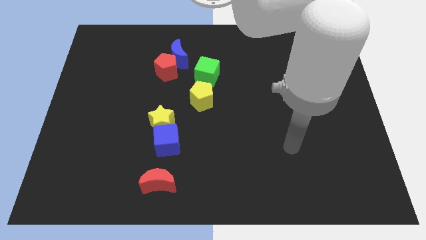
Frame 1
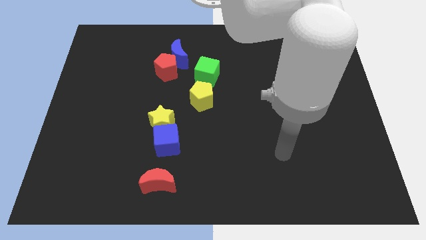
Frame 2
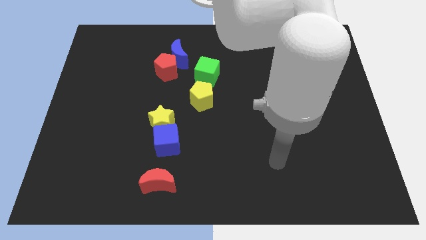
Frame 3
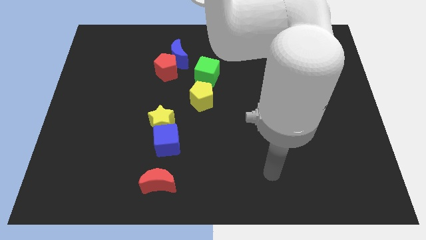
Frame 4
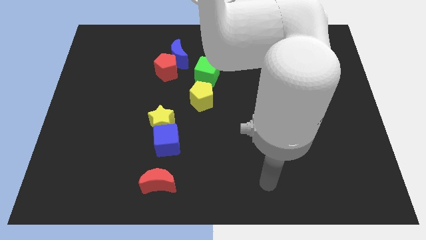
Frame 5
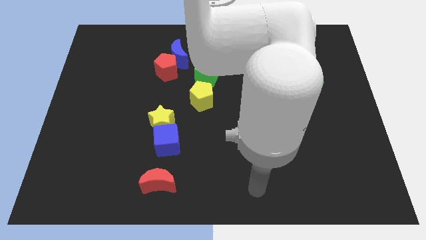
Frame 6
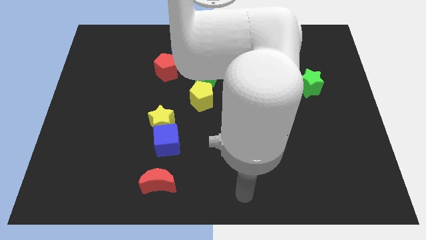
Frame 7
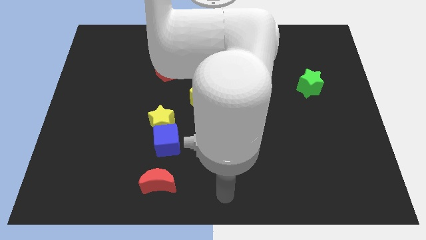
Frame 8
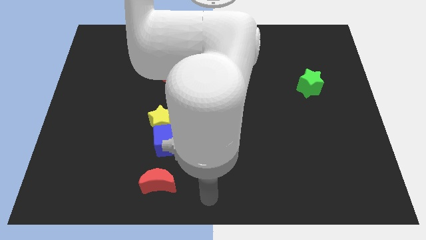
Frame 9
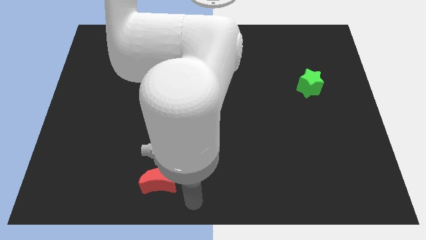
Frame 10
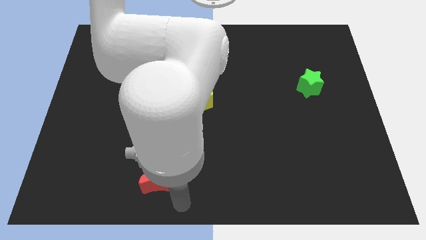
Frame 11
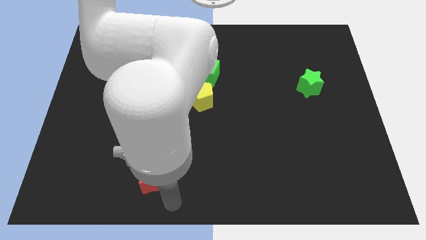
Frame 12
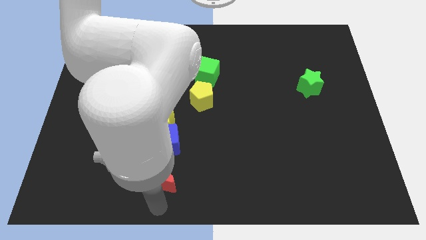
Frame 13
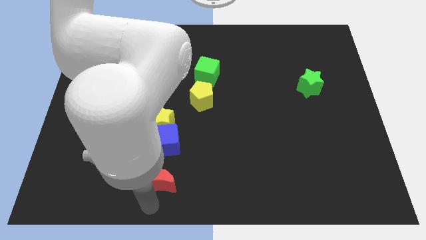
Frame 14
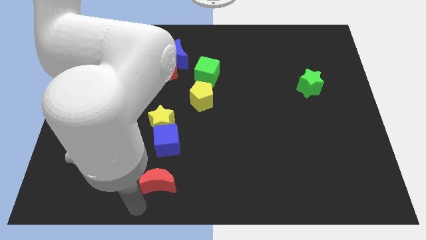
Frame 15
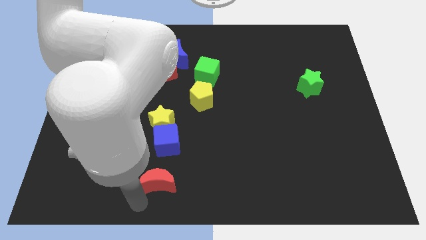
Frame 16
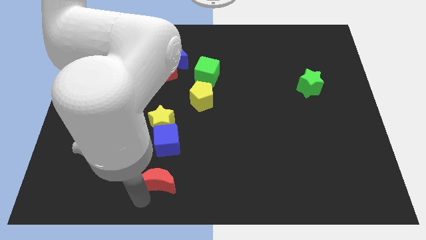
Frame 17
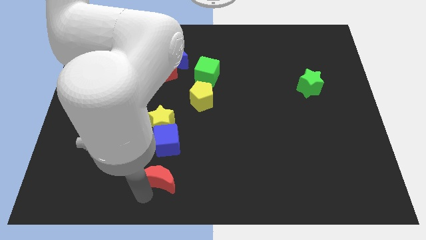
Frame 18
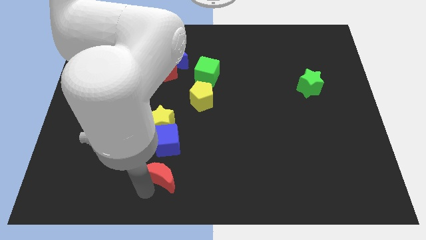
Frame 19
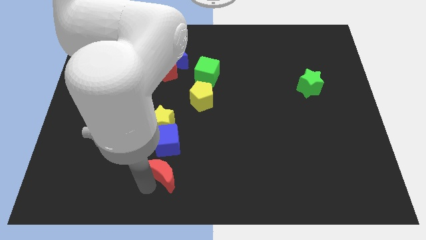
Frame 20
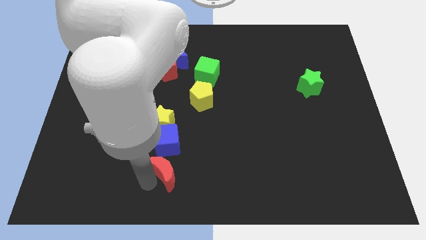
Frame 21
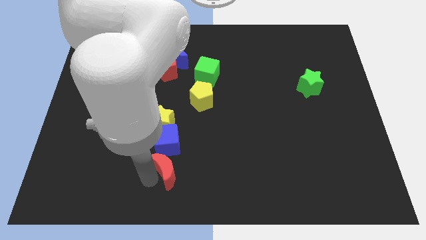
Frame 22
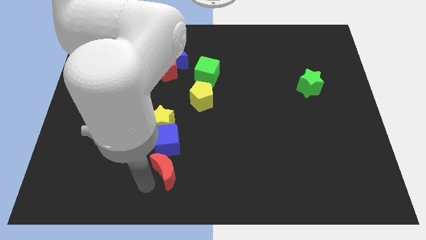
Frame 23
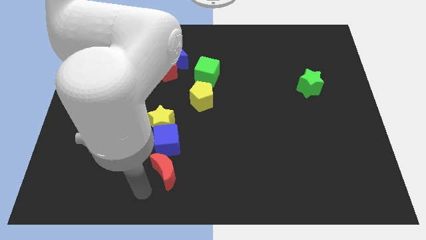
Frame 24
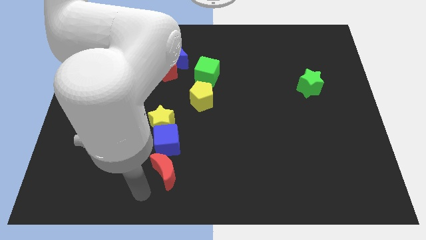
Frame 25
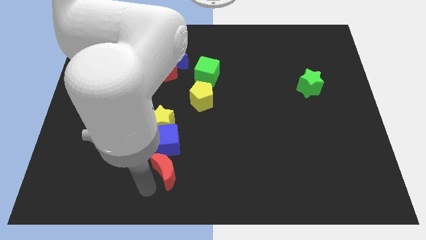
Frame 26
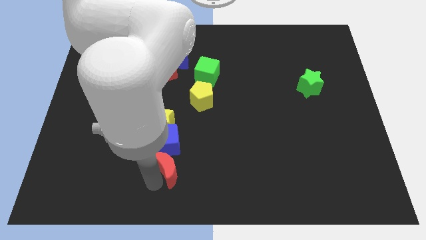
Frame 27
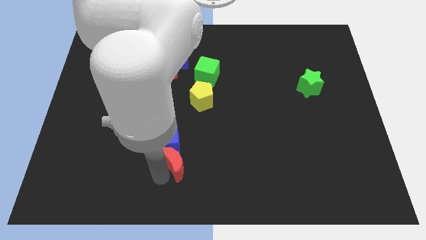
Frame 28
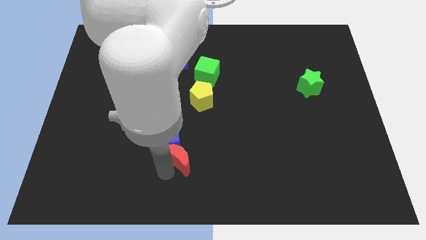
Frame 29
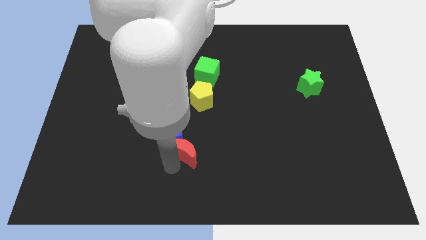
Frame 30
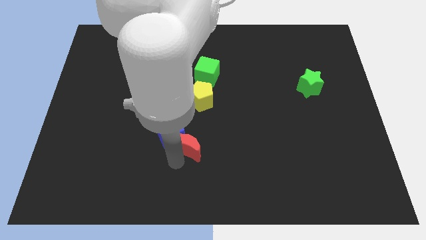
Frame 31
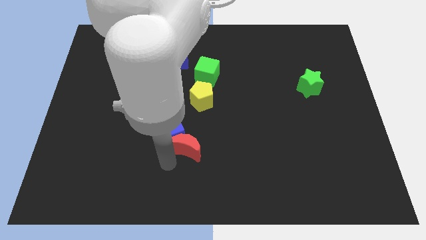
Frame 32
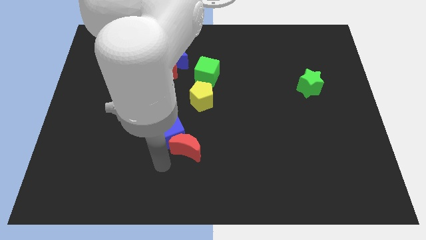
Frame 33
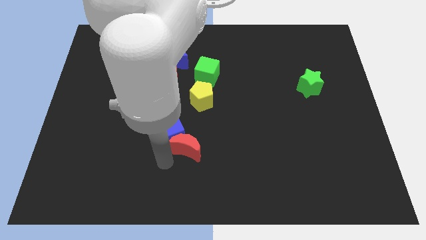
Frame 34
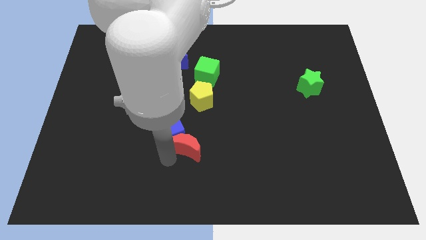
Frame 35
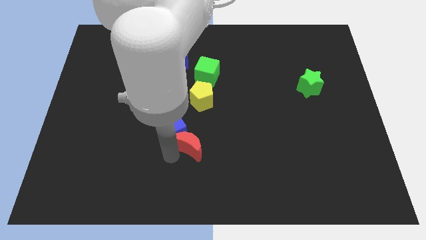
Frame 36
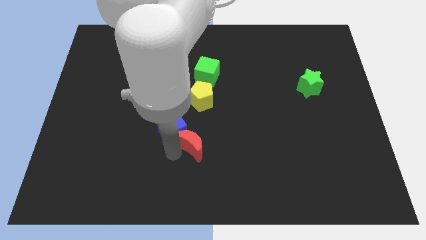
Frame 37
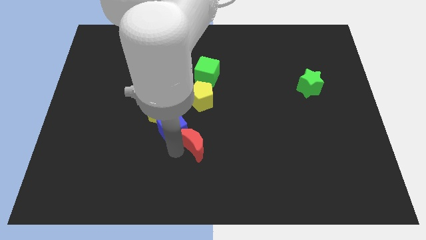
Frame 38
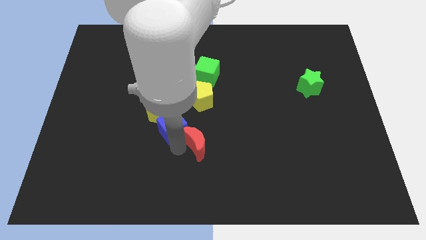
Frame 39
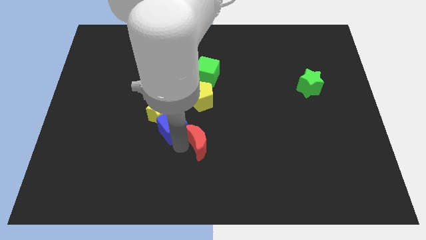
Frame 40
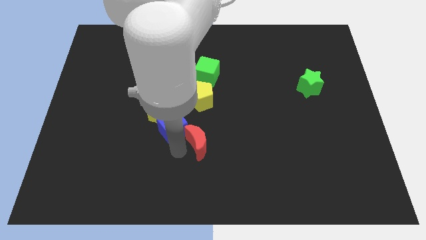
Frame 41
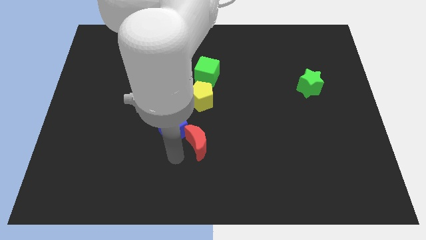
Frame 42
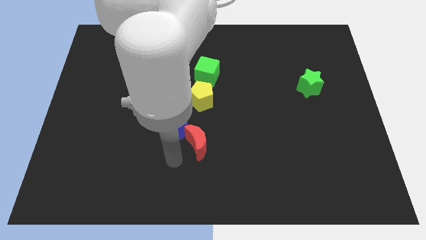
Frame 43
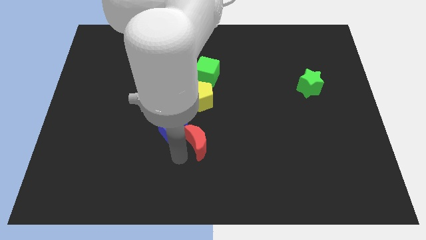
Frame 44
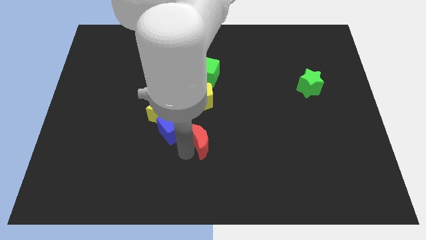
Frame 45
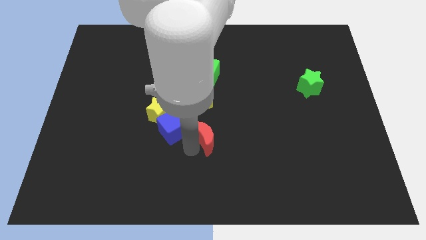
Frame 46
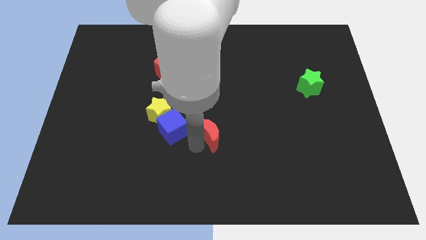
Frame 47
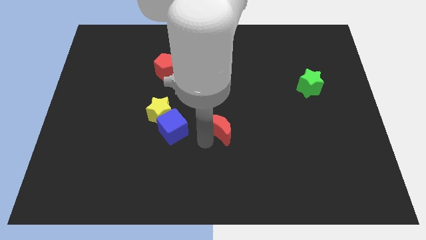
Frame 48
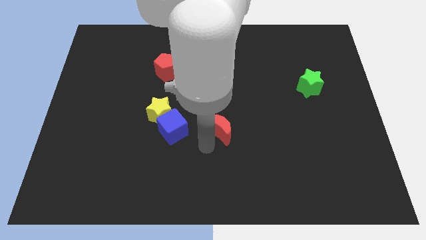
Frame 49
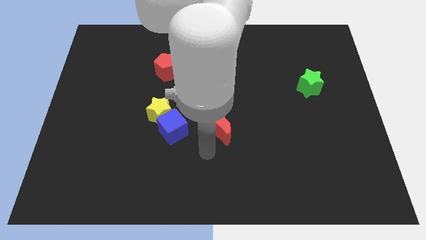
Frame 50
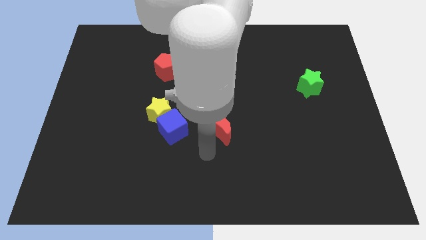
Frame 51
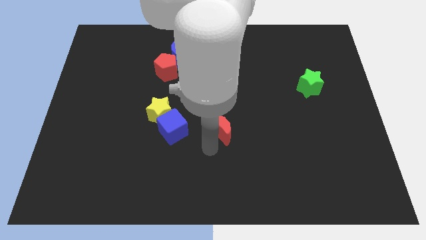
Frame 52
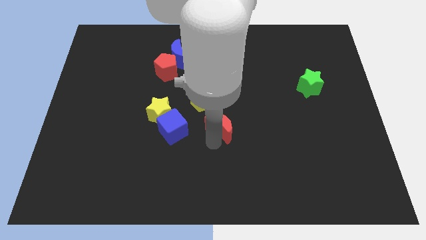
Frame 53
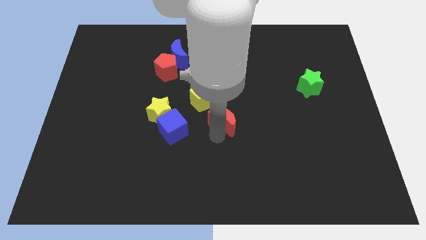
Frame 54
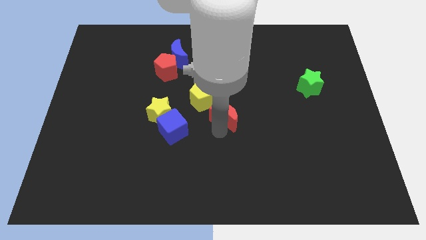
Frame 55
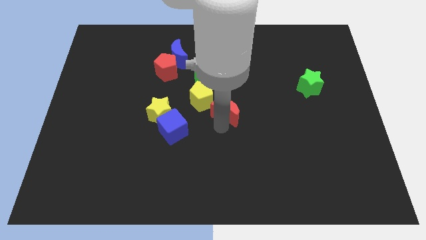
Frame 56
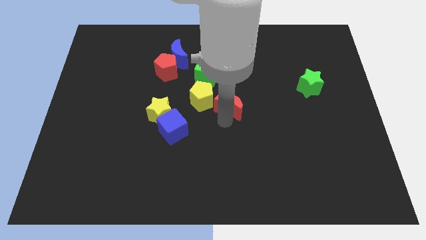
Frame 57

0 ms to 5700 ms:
put the red moon to the bottom right side of the green cube

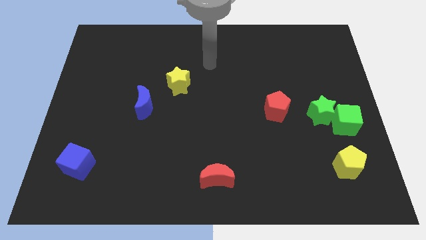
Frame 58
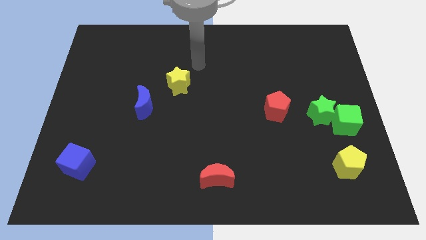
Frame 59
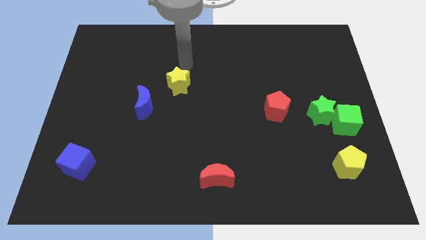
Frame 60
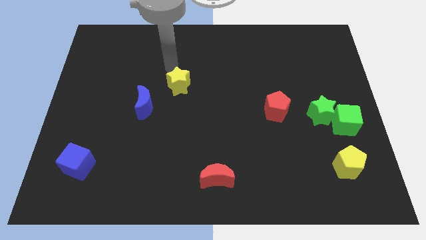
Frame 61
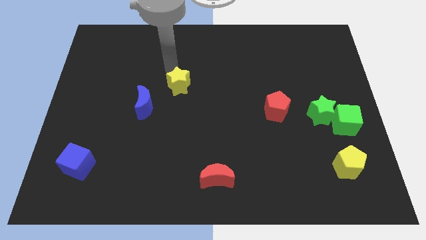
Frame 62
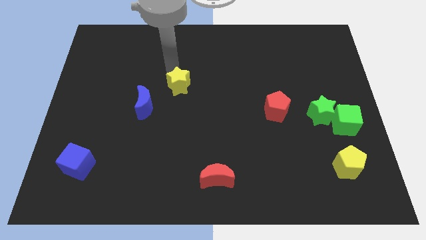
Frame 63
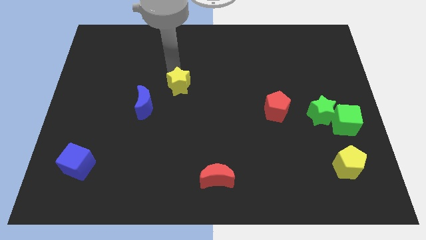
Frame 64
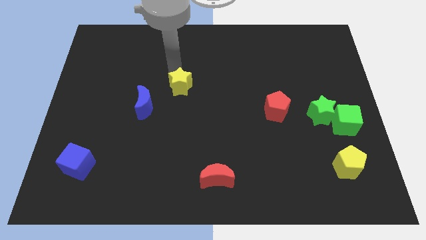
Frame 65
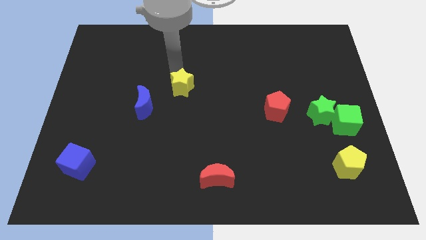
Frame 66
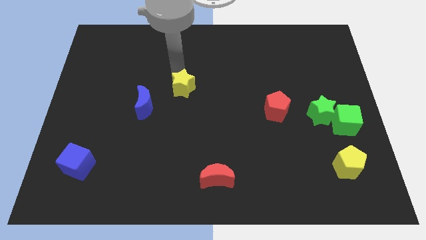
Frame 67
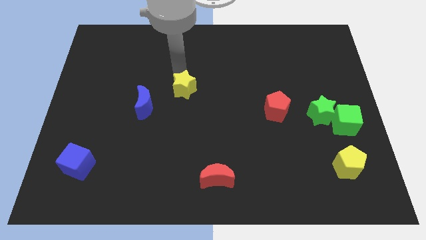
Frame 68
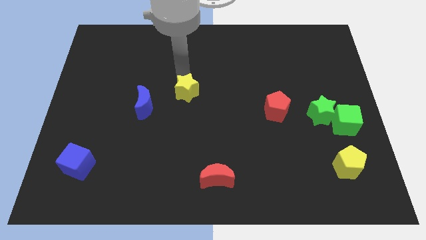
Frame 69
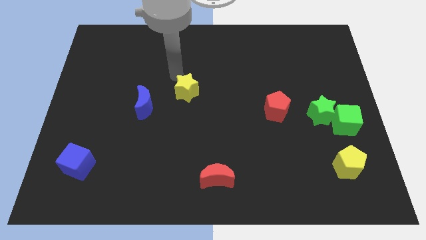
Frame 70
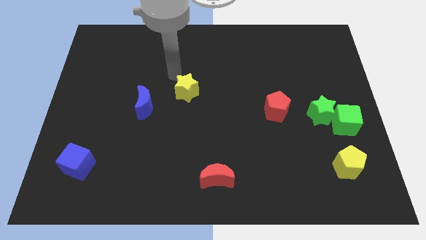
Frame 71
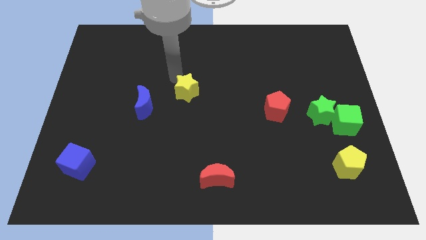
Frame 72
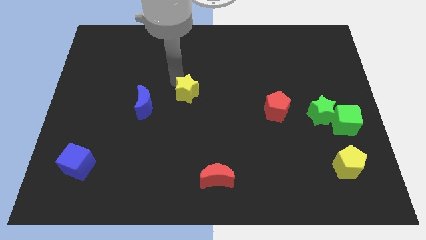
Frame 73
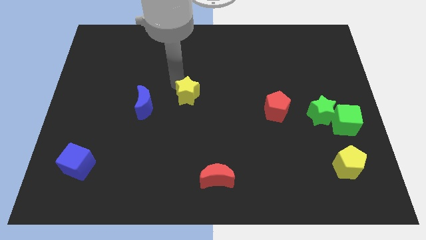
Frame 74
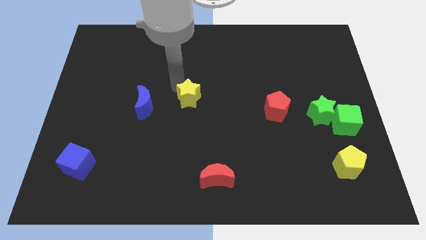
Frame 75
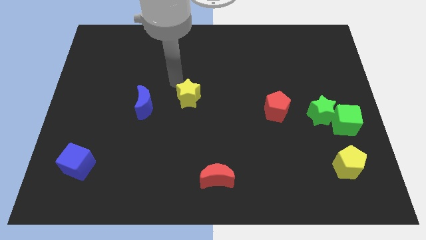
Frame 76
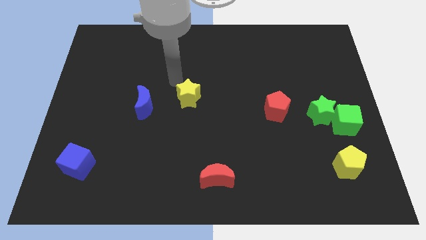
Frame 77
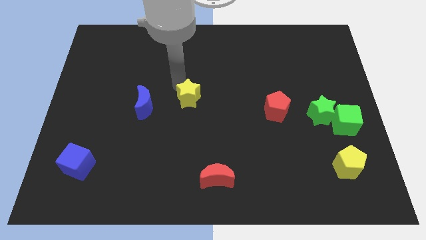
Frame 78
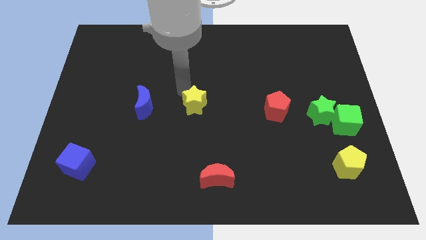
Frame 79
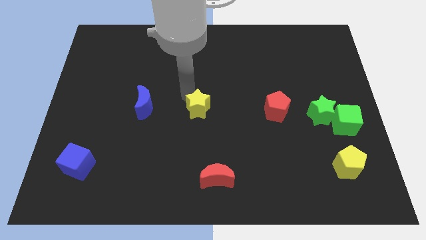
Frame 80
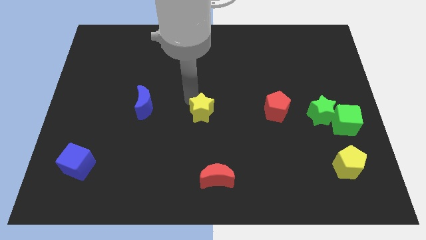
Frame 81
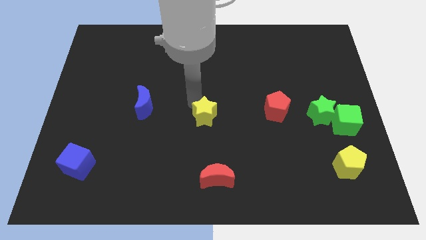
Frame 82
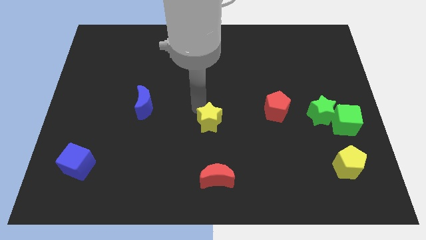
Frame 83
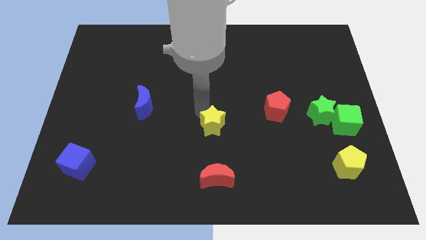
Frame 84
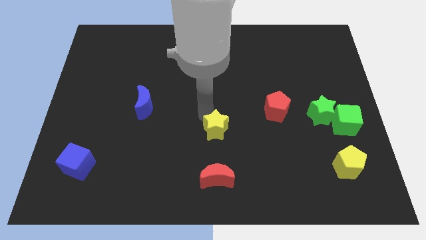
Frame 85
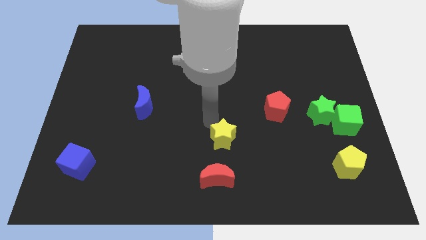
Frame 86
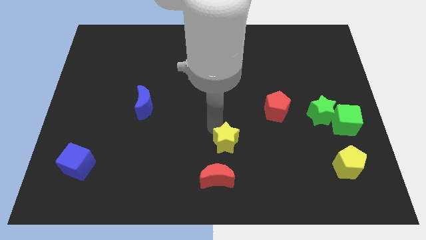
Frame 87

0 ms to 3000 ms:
move the yellow star to the top right of the red moon
